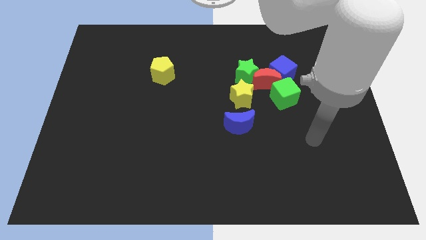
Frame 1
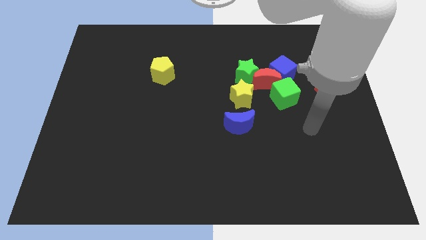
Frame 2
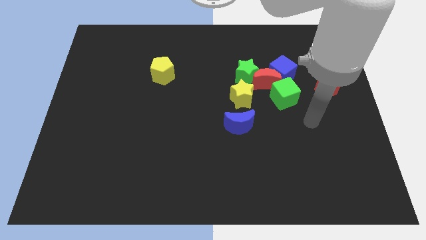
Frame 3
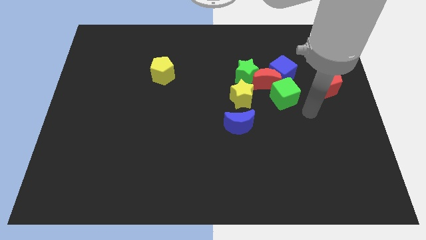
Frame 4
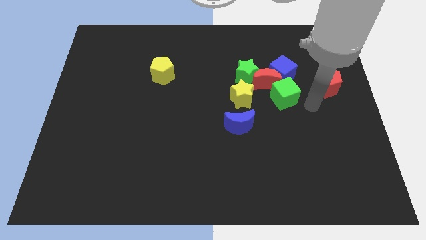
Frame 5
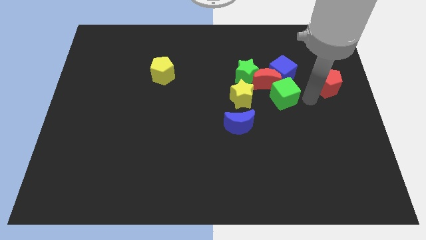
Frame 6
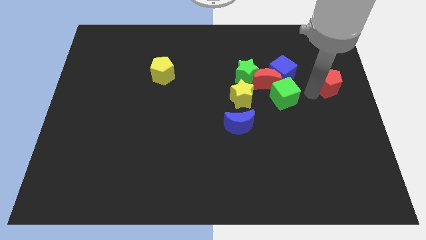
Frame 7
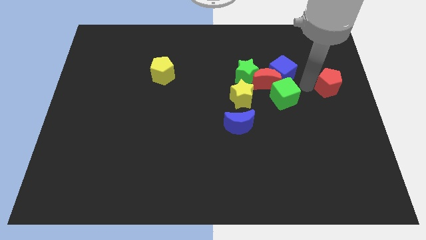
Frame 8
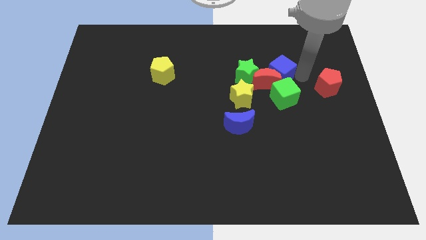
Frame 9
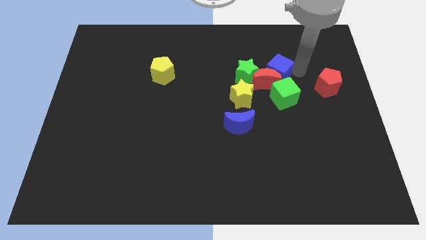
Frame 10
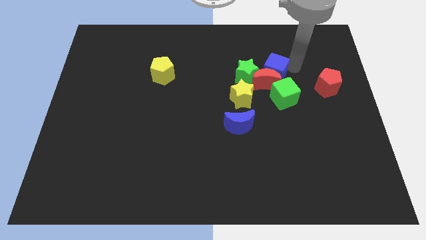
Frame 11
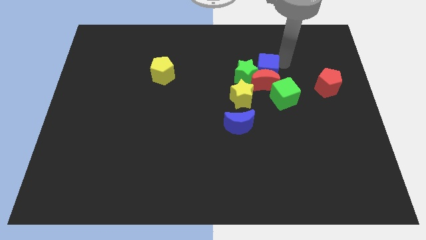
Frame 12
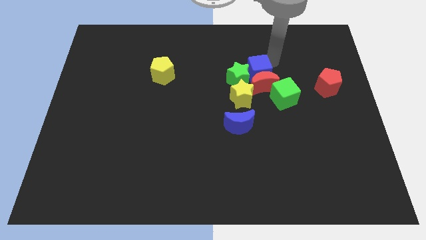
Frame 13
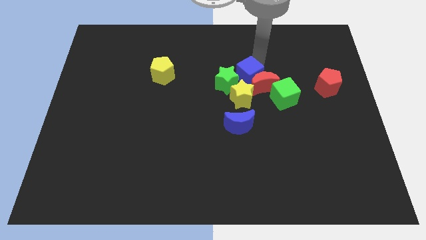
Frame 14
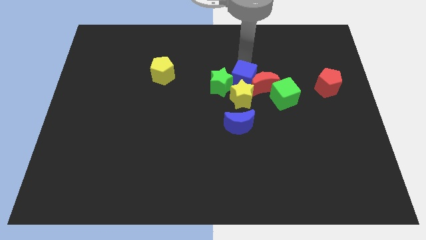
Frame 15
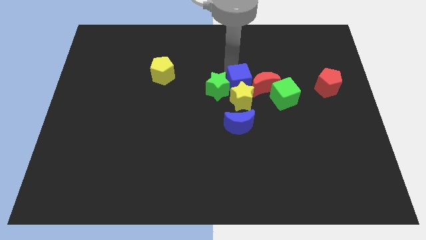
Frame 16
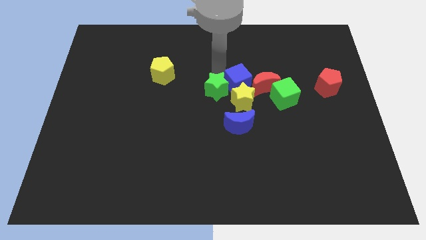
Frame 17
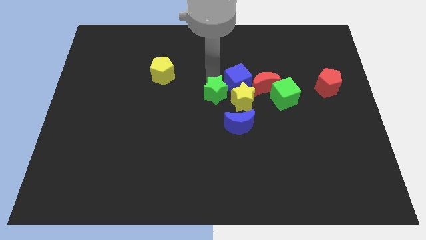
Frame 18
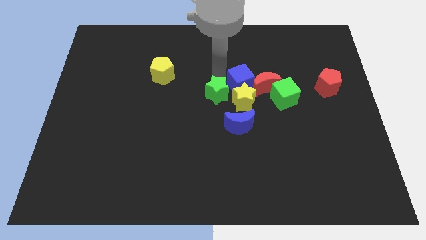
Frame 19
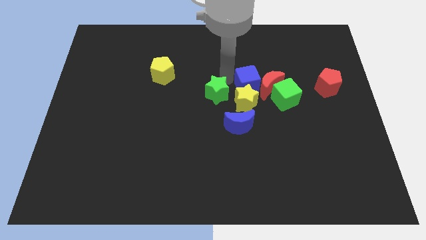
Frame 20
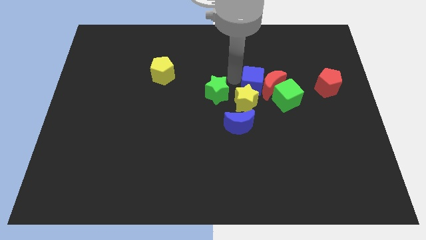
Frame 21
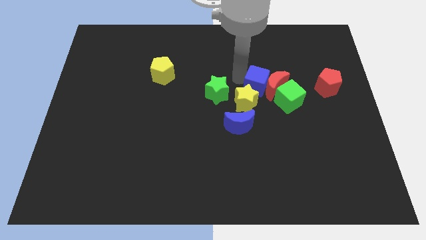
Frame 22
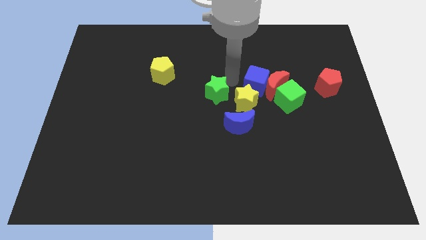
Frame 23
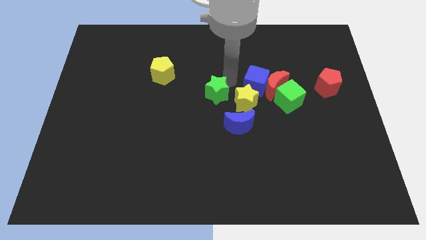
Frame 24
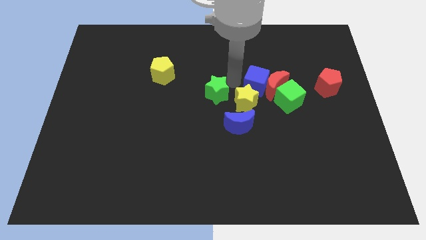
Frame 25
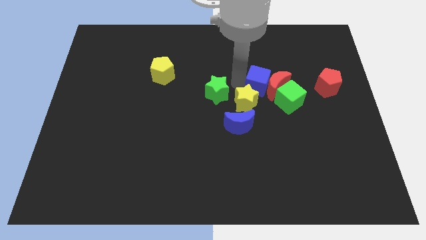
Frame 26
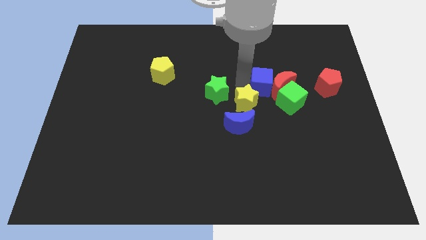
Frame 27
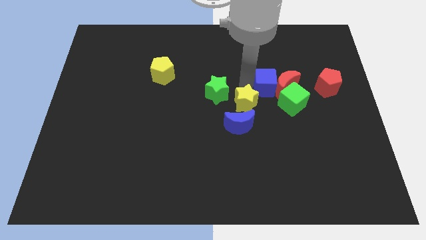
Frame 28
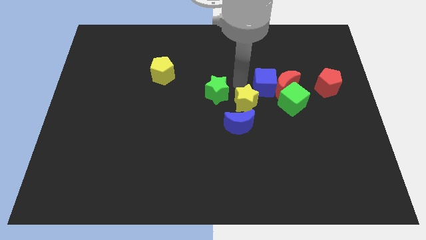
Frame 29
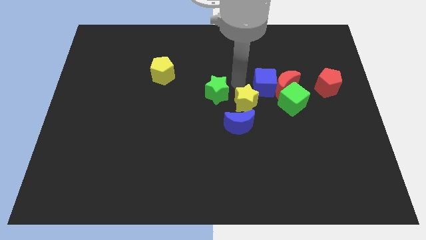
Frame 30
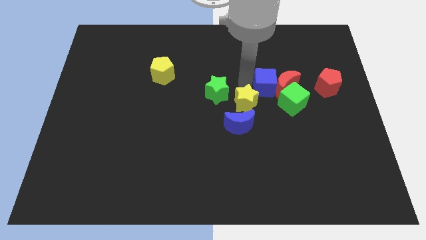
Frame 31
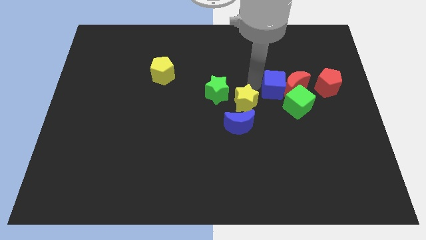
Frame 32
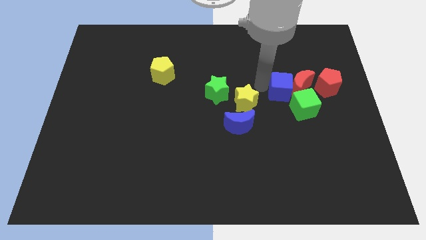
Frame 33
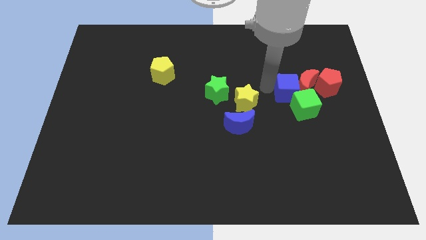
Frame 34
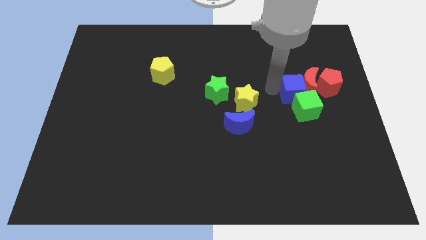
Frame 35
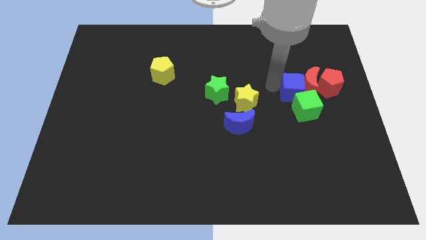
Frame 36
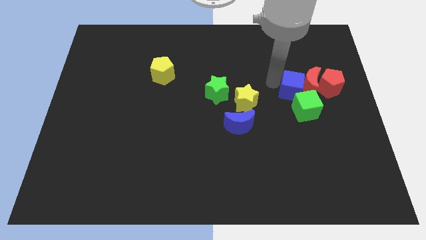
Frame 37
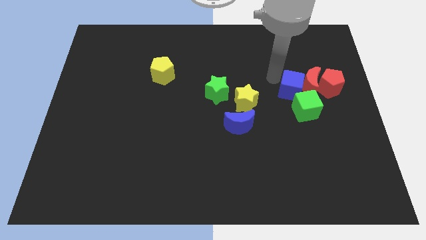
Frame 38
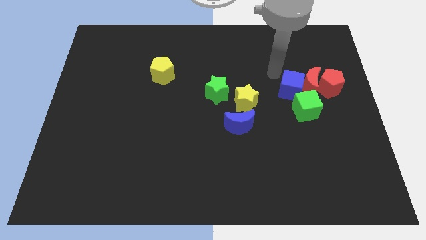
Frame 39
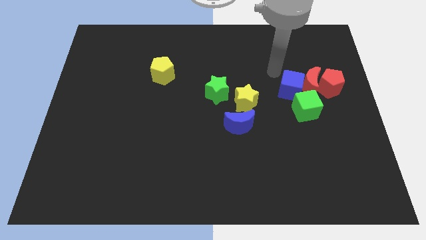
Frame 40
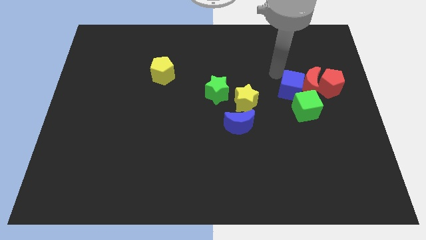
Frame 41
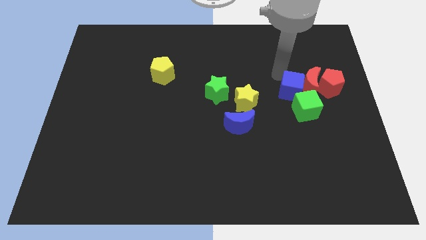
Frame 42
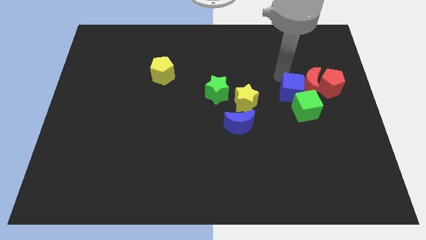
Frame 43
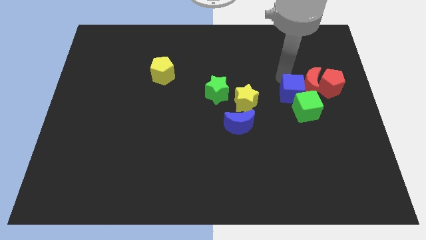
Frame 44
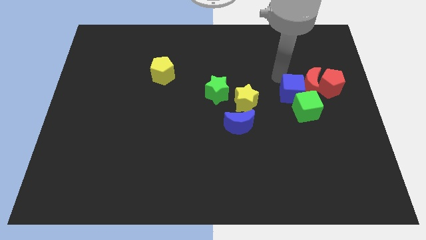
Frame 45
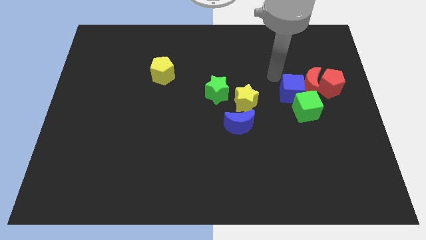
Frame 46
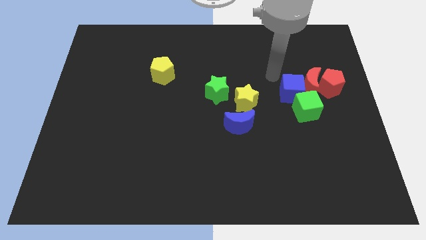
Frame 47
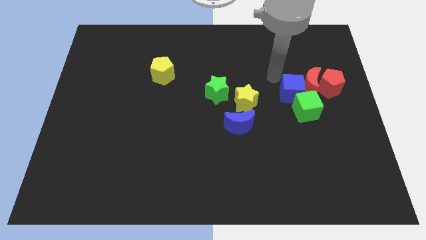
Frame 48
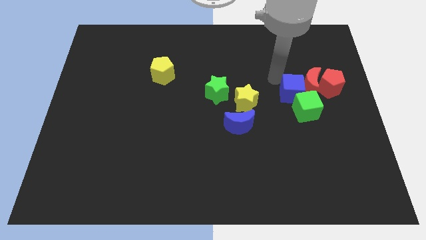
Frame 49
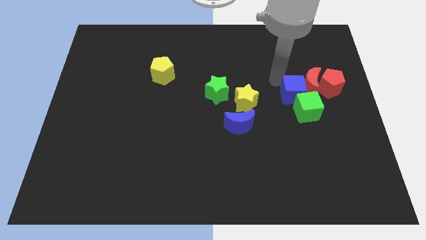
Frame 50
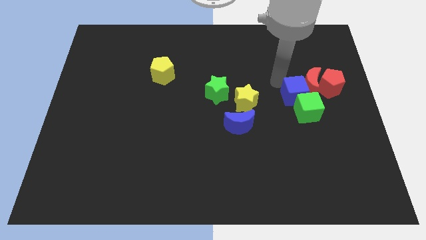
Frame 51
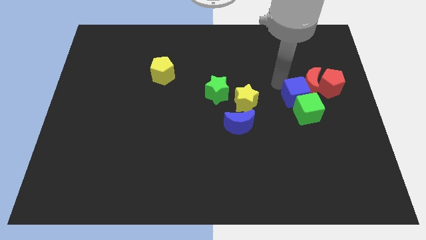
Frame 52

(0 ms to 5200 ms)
push the blue cube somewhat down

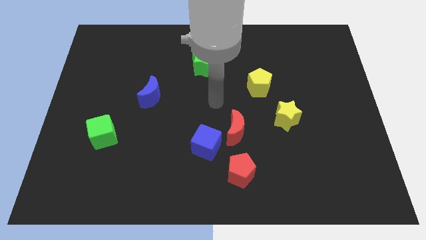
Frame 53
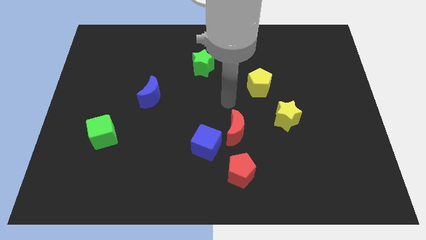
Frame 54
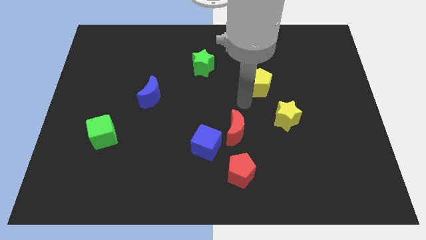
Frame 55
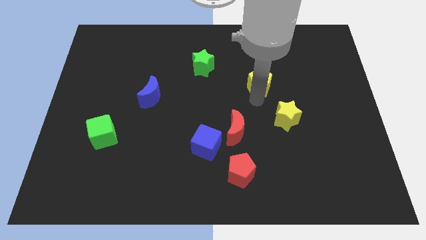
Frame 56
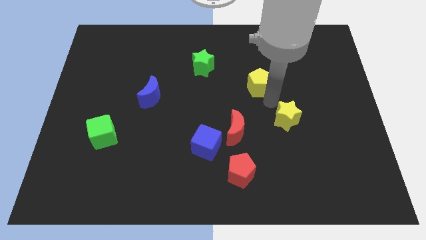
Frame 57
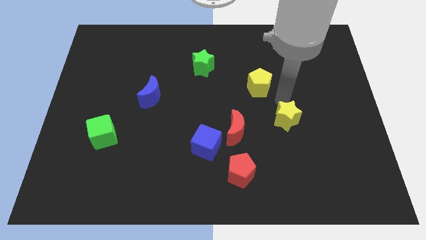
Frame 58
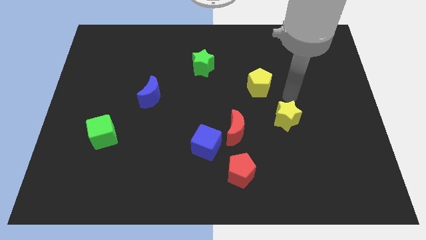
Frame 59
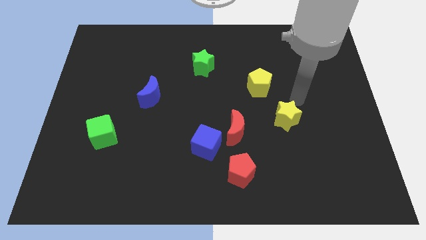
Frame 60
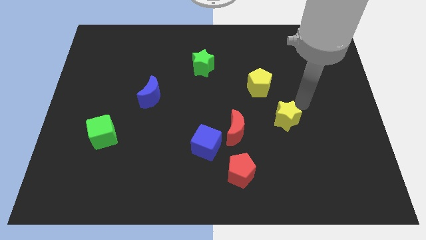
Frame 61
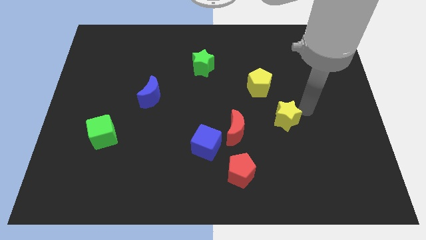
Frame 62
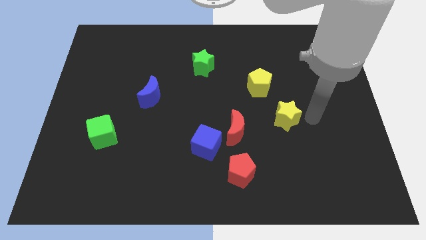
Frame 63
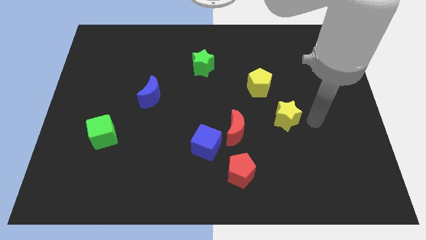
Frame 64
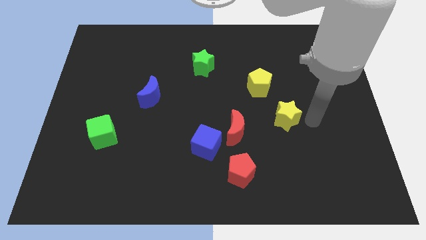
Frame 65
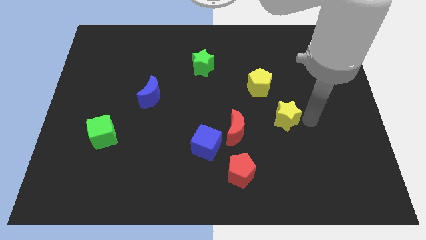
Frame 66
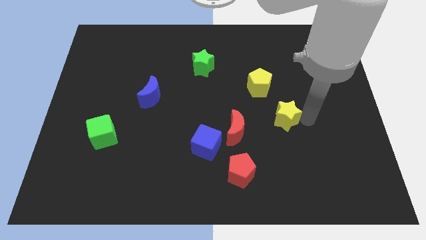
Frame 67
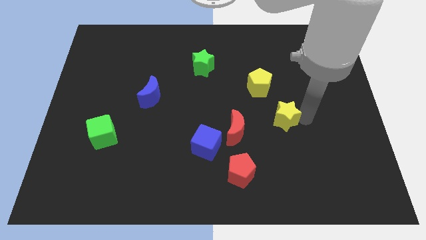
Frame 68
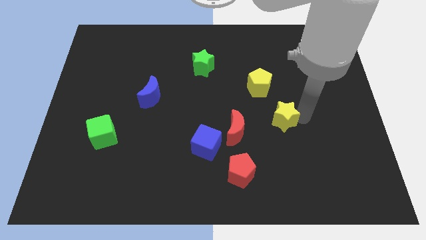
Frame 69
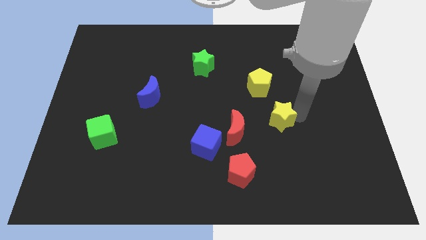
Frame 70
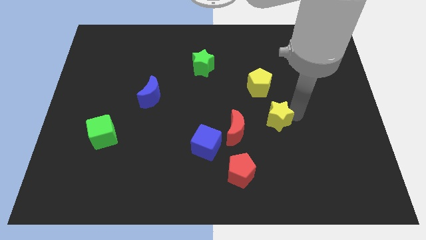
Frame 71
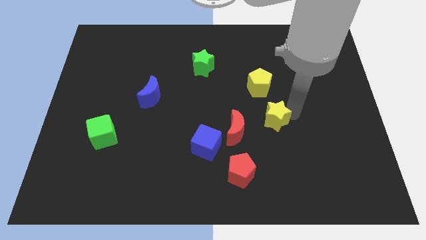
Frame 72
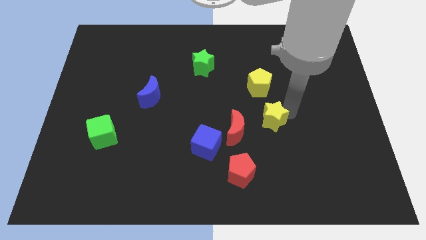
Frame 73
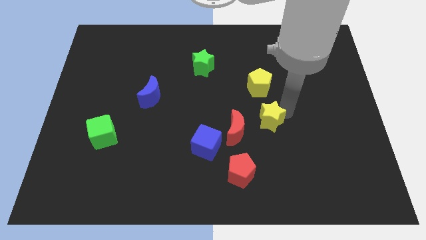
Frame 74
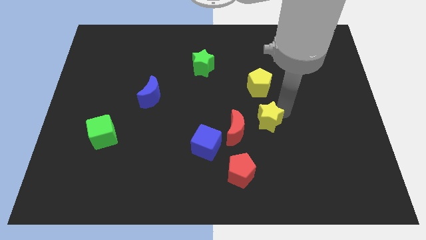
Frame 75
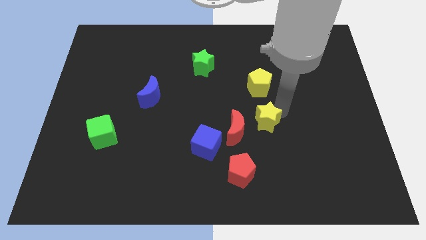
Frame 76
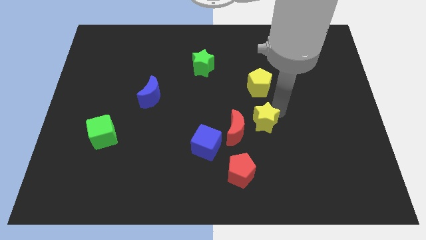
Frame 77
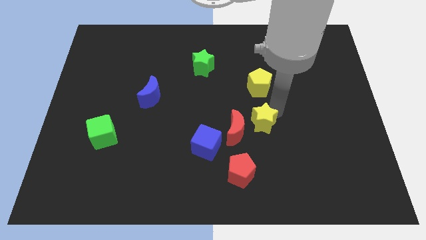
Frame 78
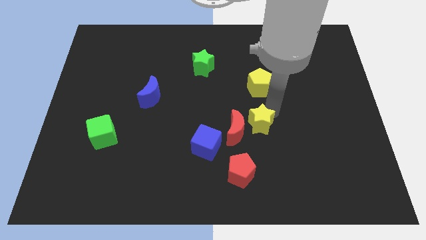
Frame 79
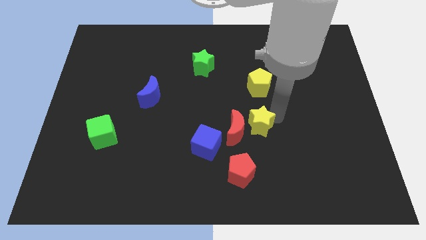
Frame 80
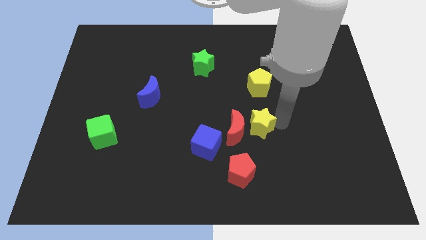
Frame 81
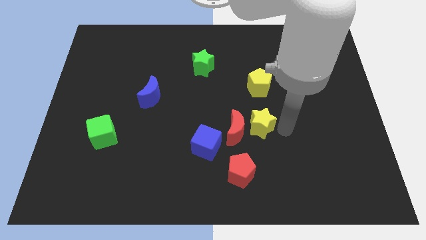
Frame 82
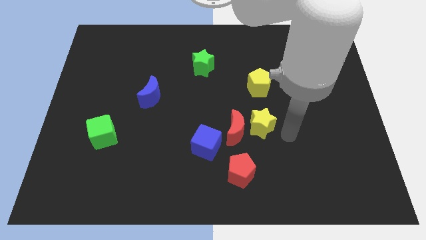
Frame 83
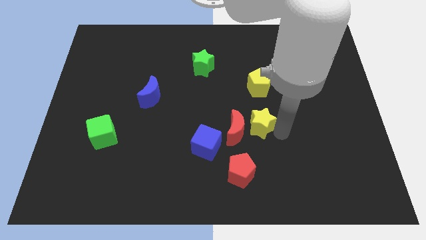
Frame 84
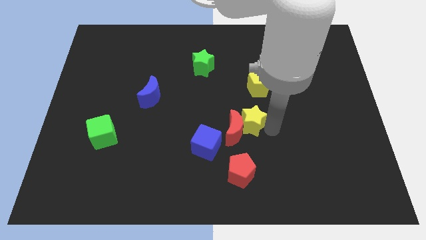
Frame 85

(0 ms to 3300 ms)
slide the yellow star a bit left
